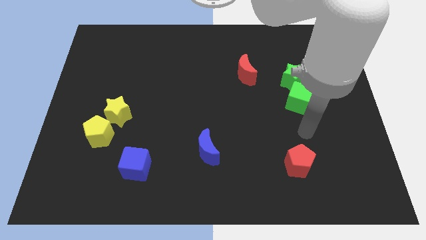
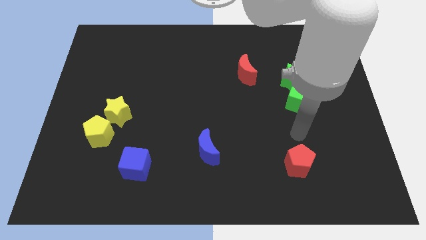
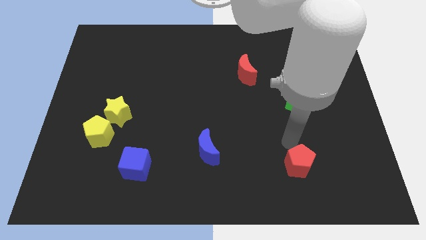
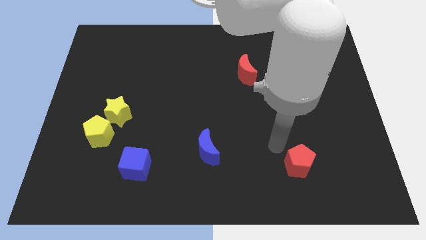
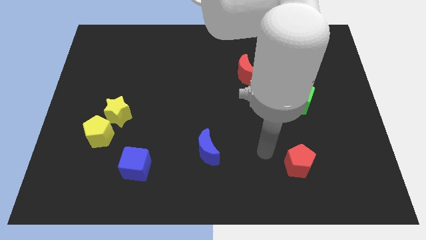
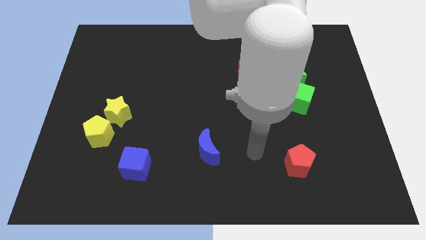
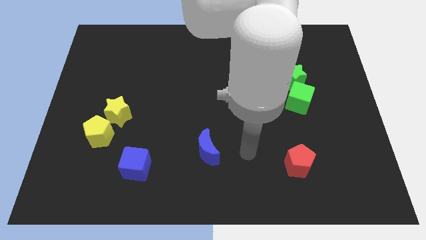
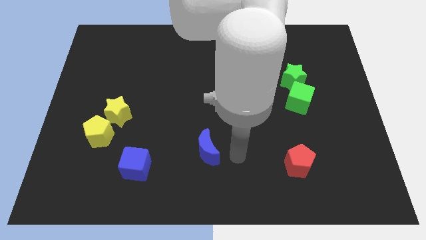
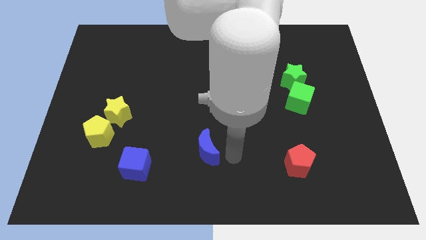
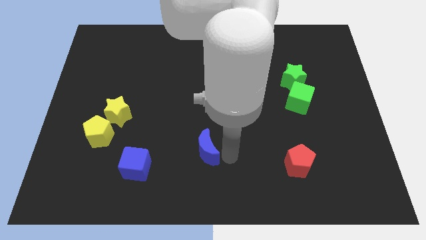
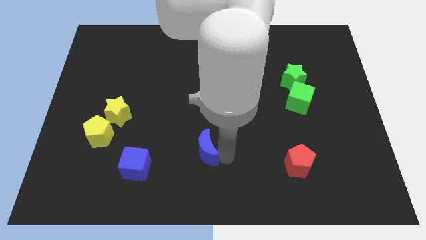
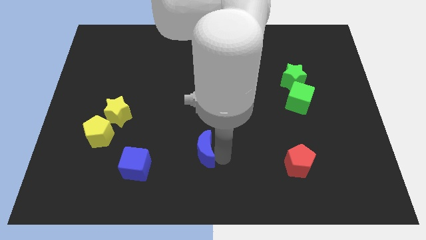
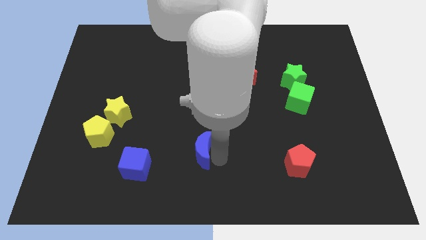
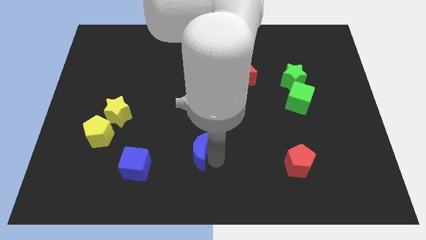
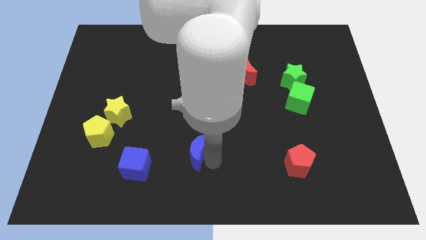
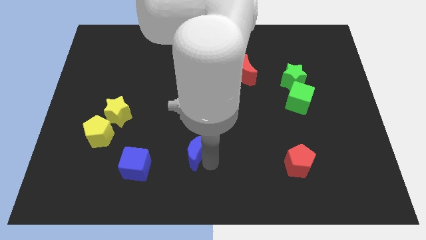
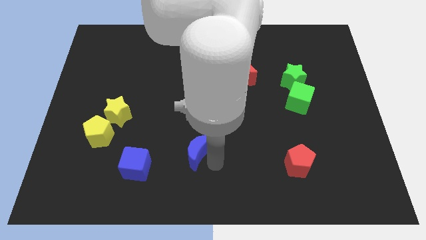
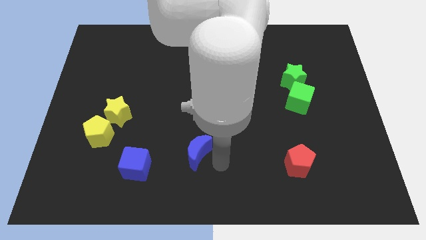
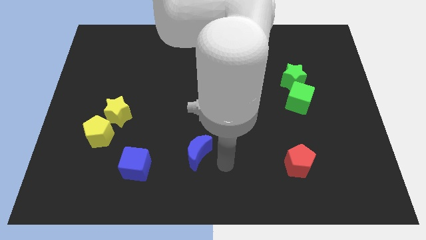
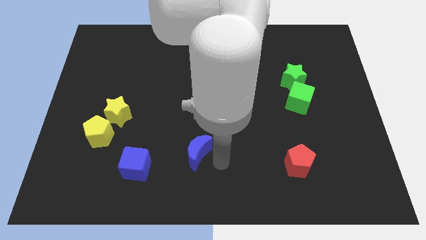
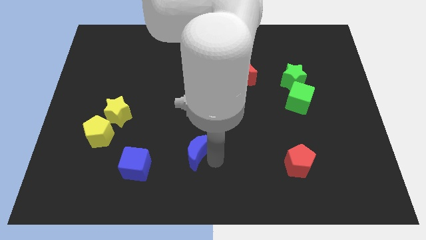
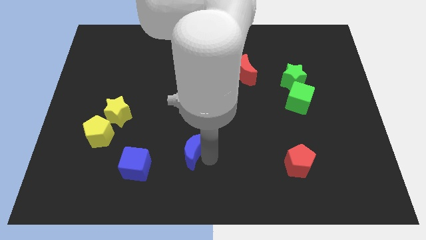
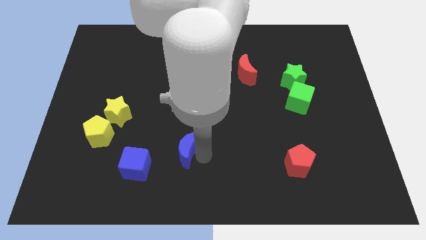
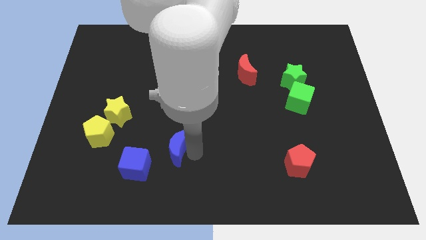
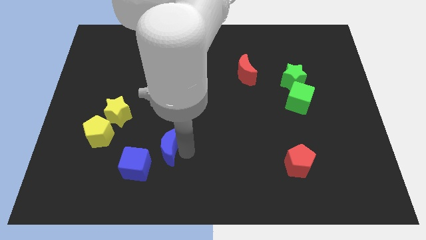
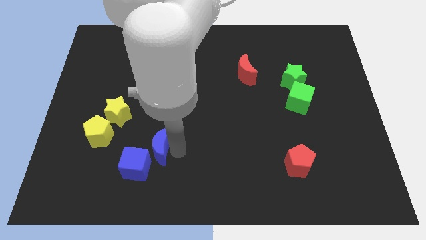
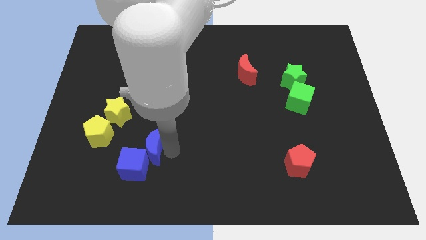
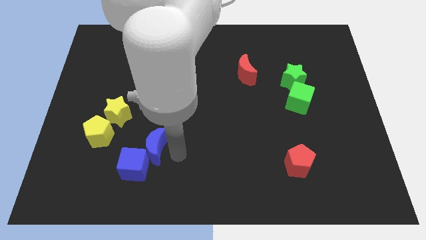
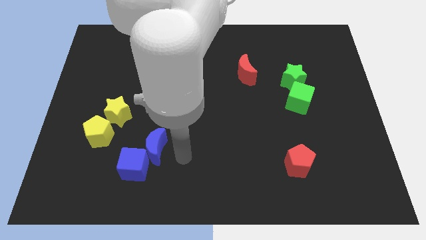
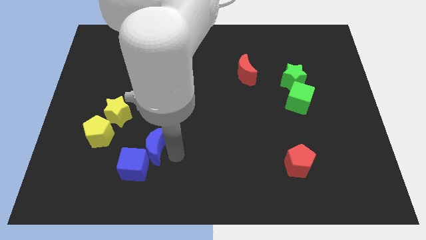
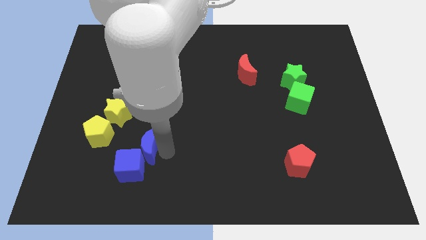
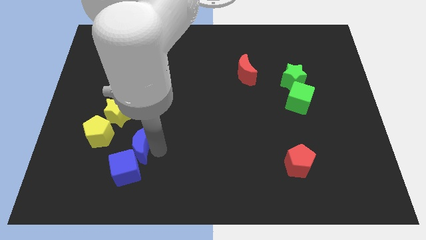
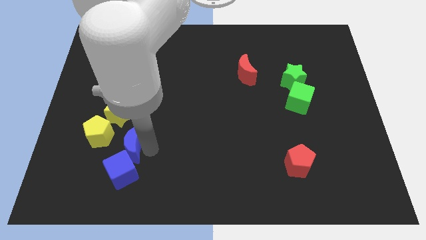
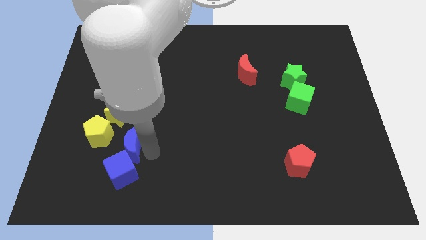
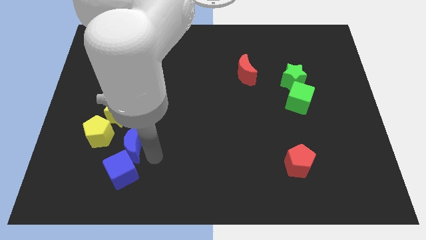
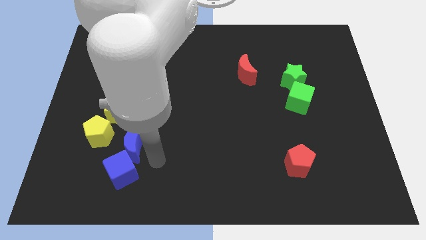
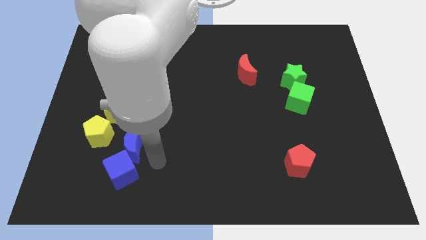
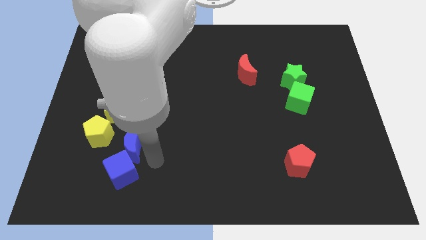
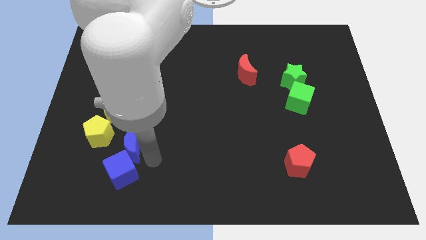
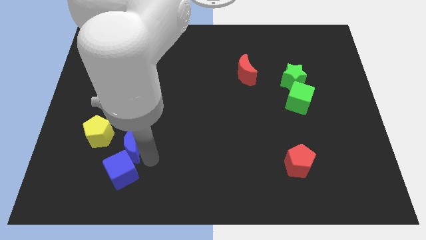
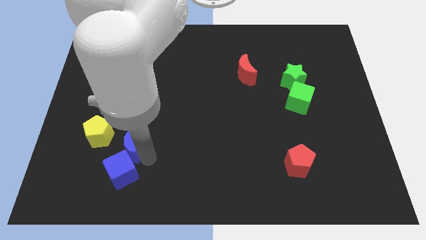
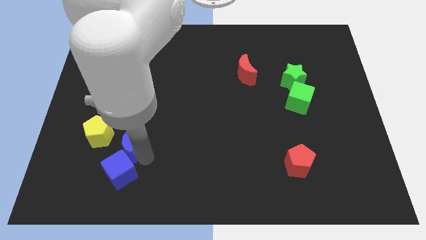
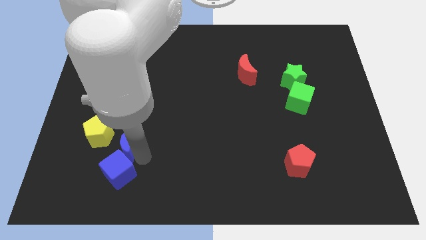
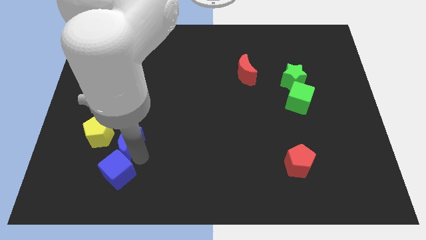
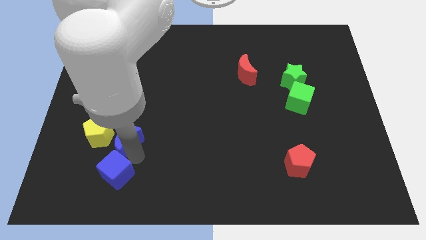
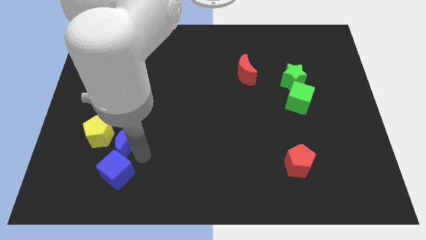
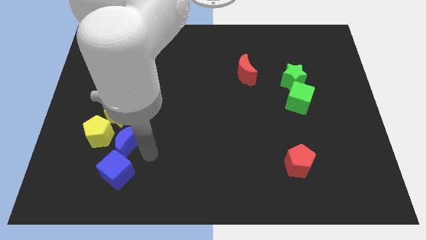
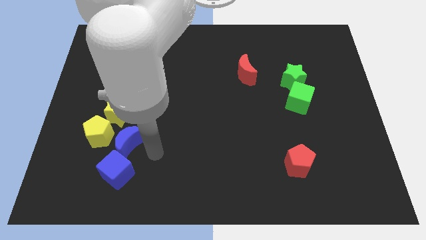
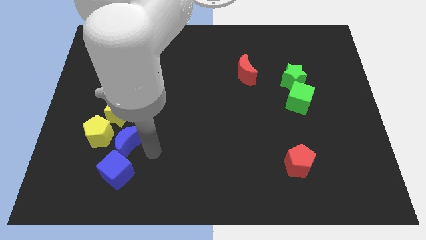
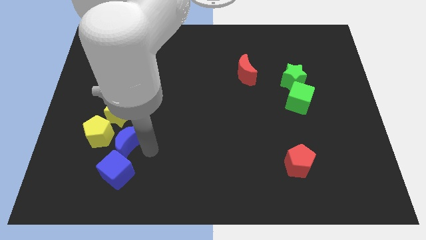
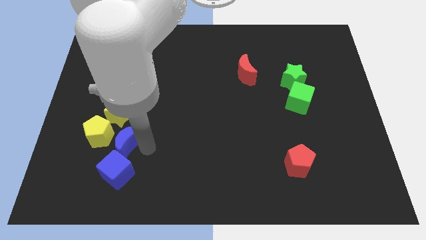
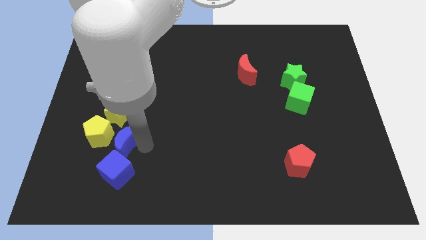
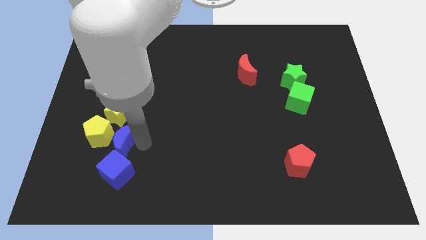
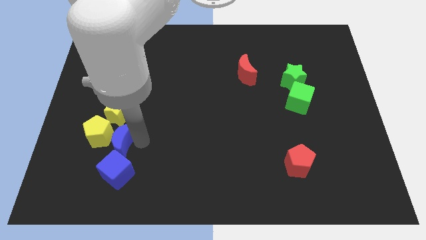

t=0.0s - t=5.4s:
push the blue moon next to the yellow pentagon

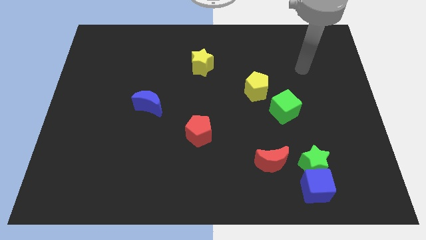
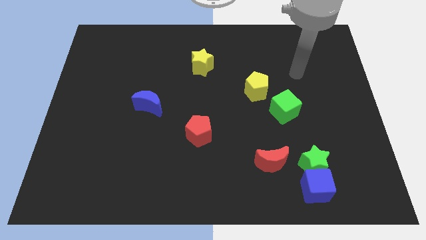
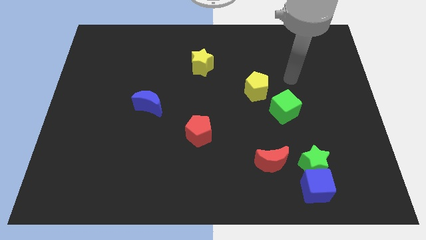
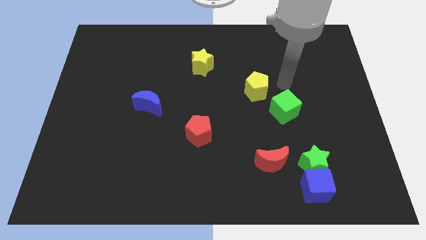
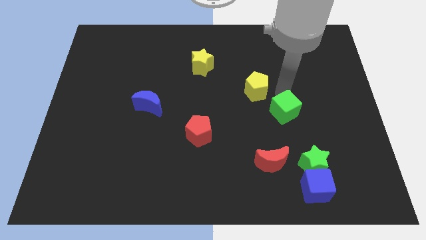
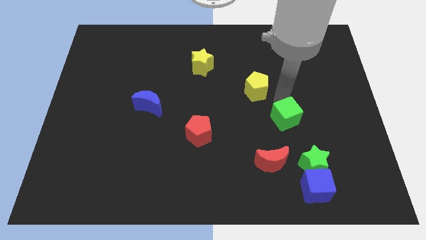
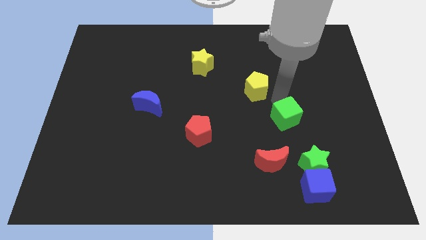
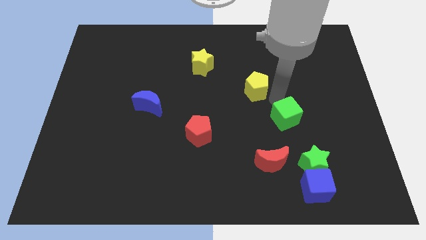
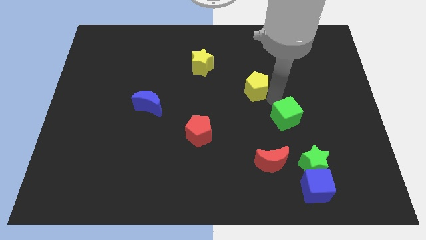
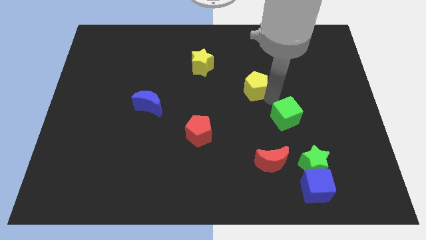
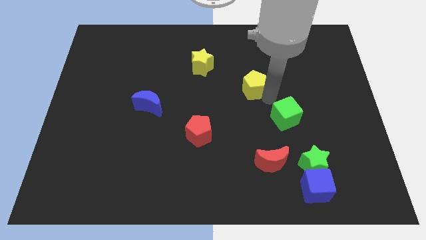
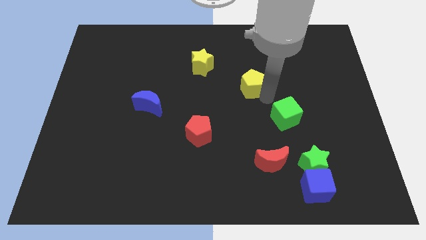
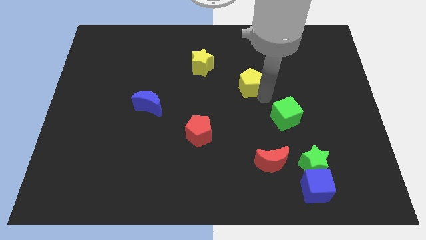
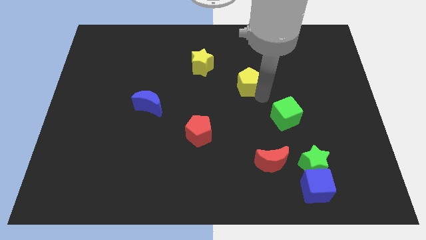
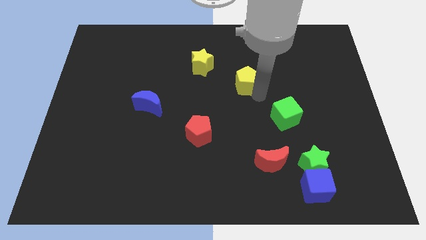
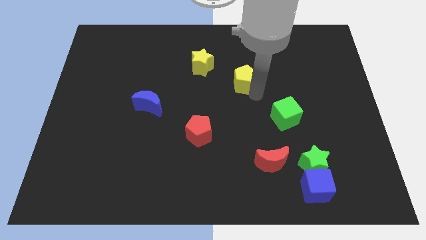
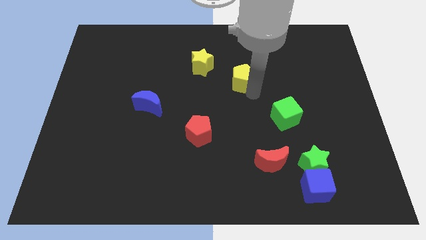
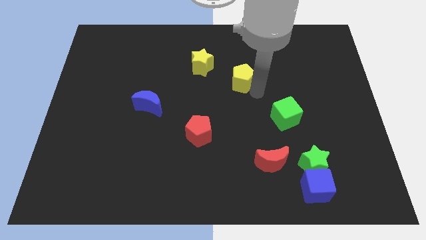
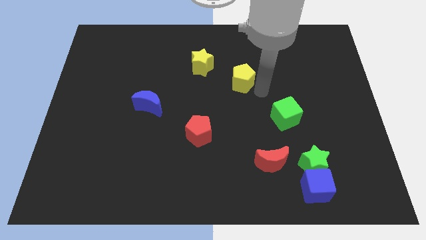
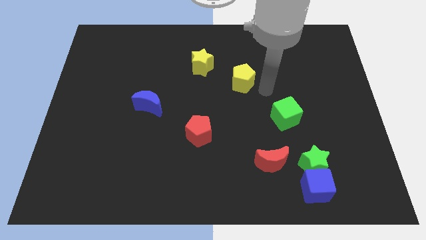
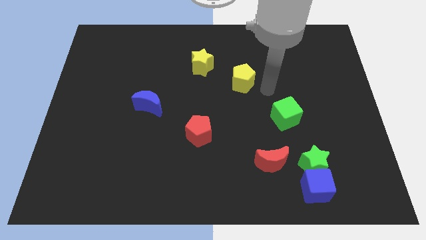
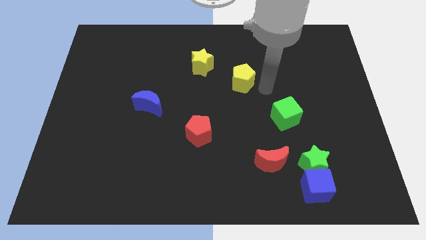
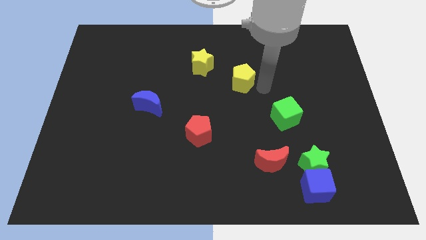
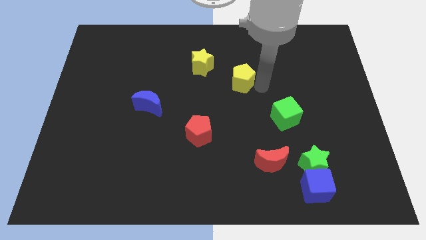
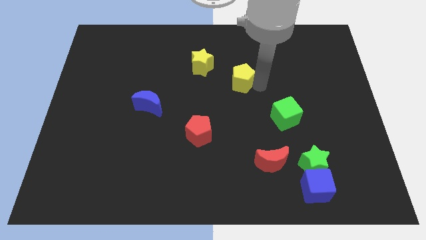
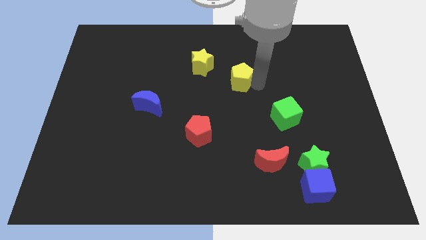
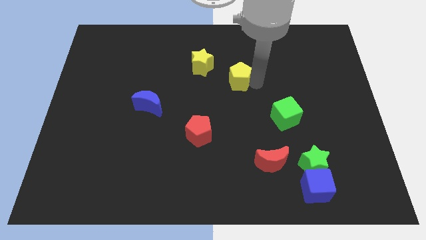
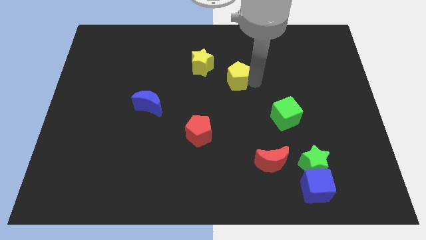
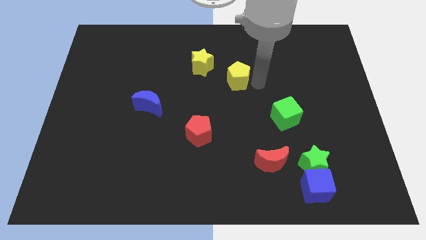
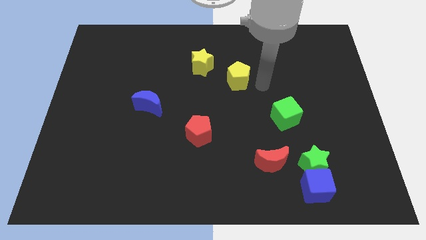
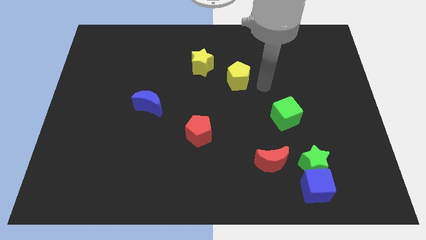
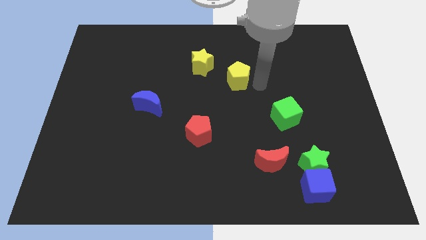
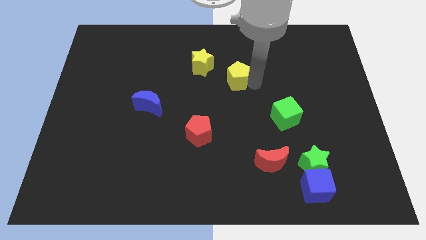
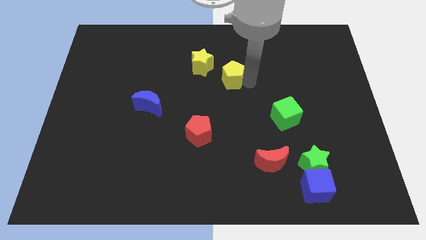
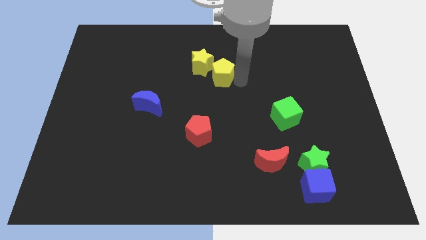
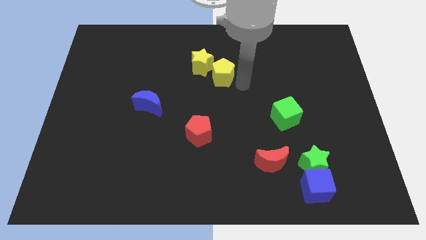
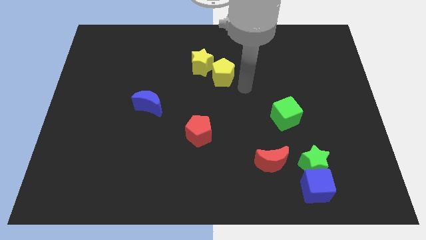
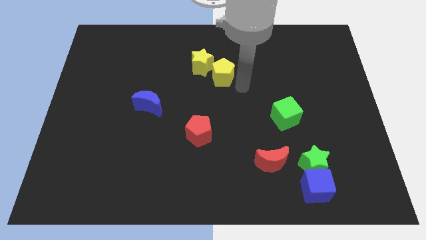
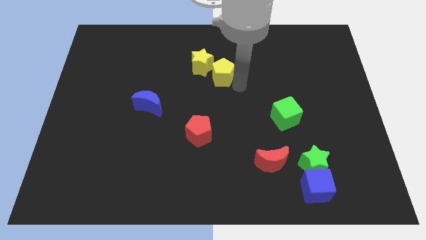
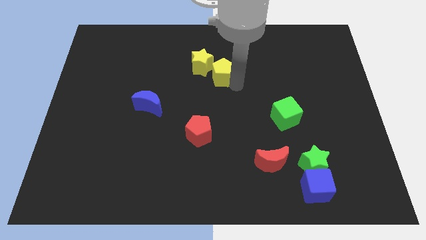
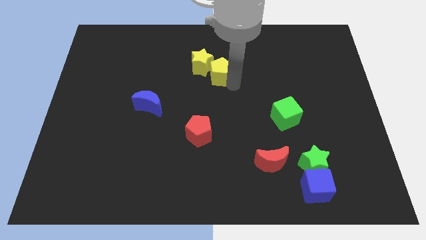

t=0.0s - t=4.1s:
push the yellow pentagon close to the yellow star
